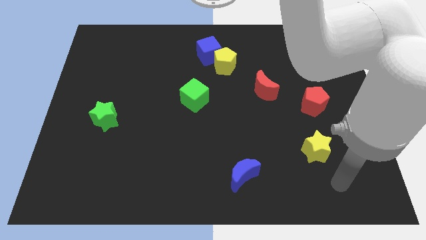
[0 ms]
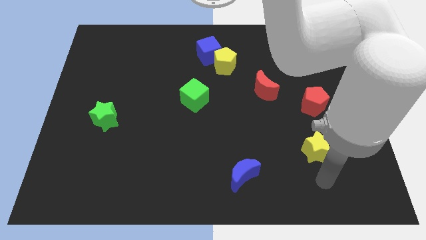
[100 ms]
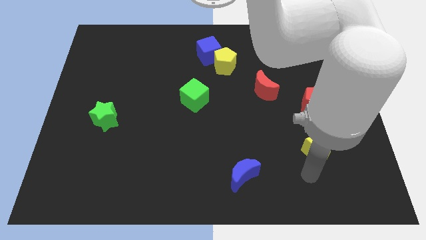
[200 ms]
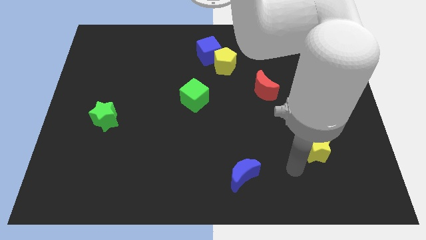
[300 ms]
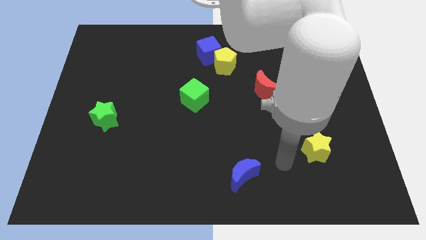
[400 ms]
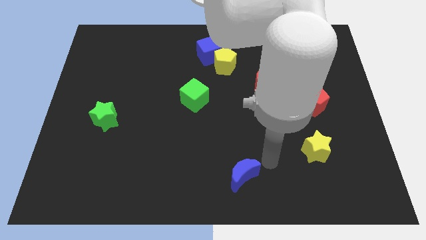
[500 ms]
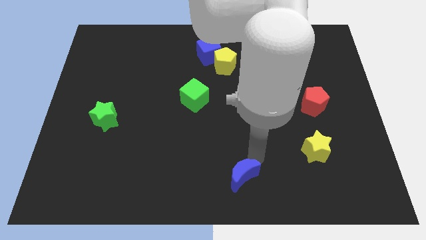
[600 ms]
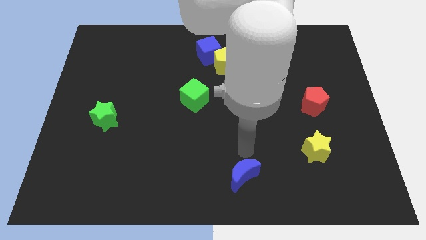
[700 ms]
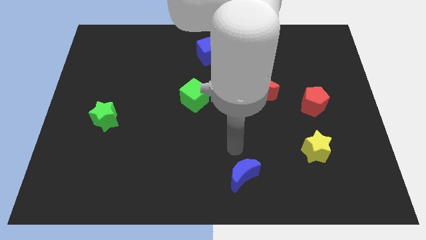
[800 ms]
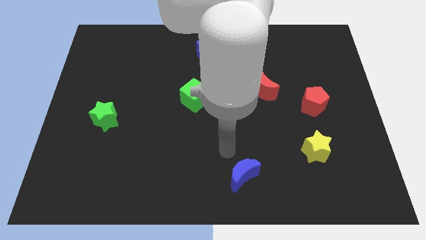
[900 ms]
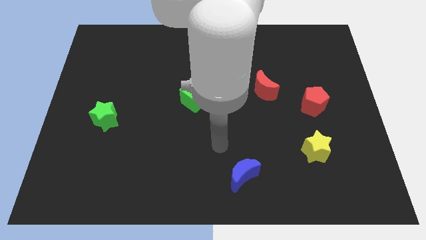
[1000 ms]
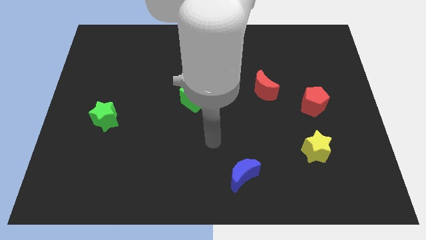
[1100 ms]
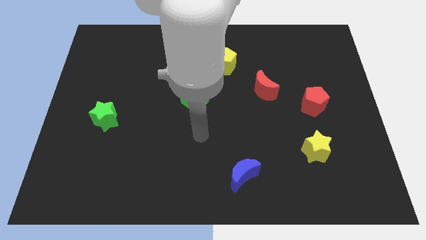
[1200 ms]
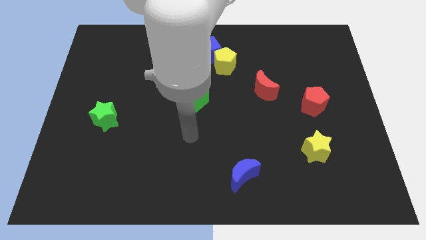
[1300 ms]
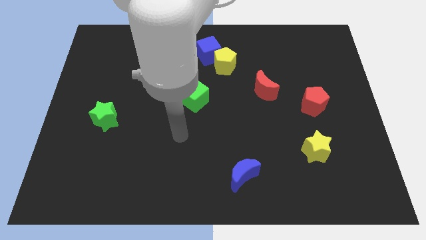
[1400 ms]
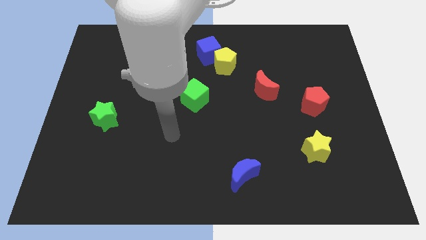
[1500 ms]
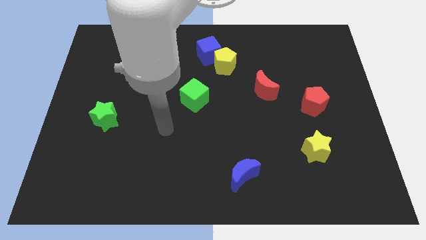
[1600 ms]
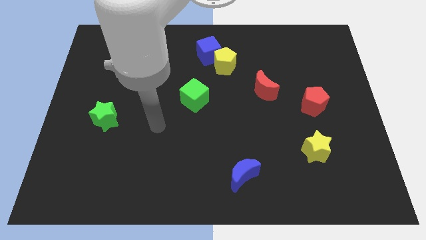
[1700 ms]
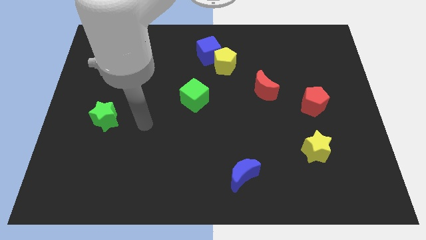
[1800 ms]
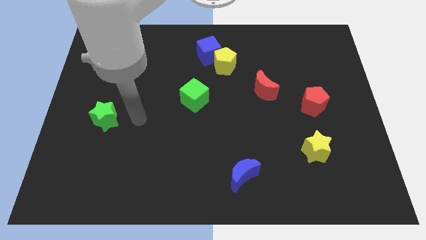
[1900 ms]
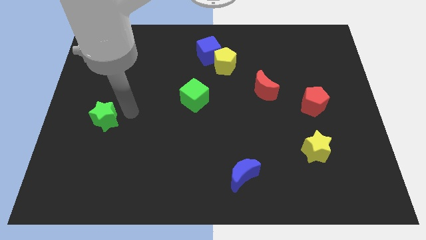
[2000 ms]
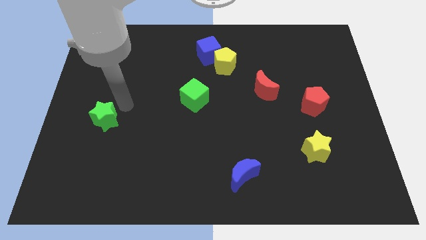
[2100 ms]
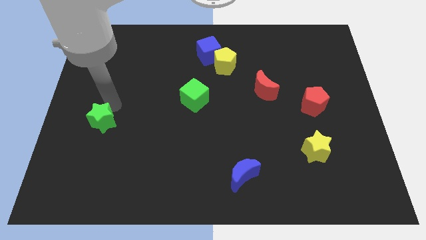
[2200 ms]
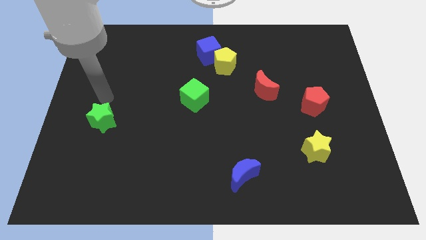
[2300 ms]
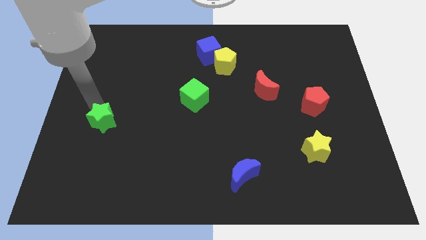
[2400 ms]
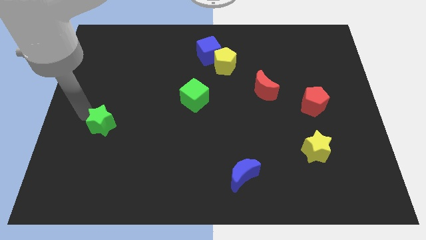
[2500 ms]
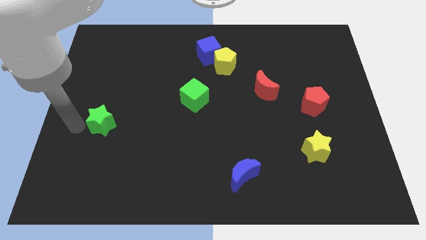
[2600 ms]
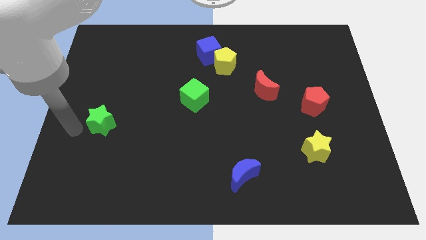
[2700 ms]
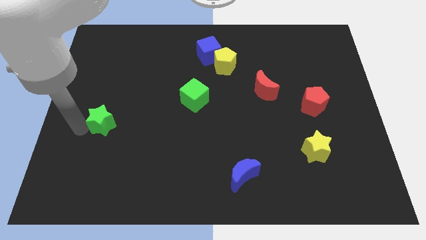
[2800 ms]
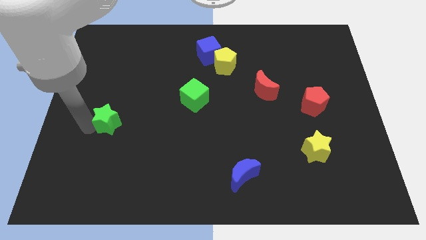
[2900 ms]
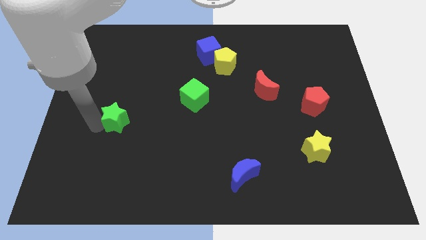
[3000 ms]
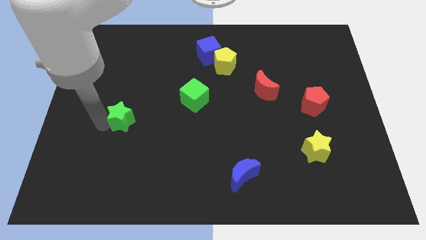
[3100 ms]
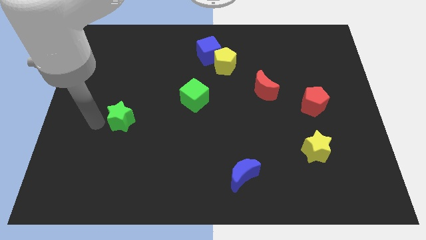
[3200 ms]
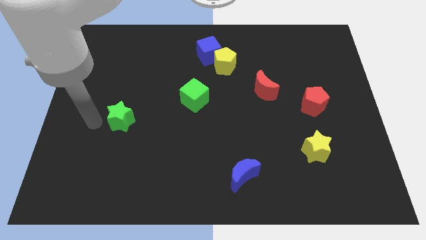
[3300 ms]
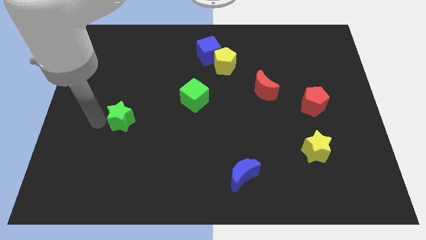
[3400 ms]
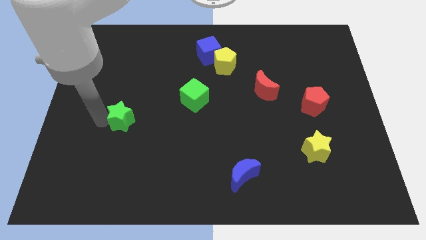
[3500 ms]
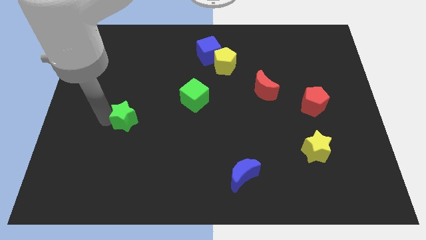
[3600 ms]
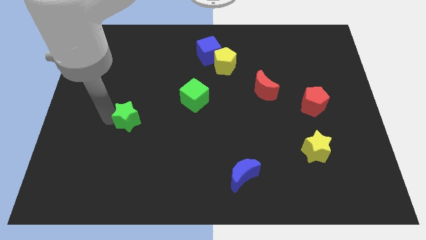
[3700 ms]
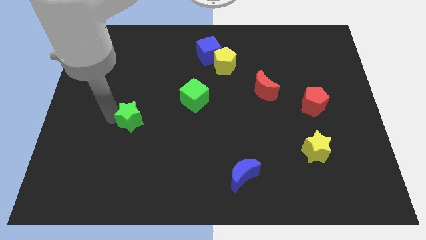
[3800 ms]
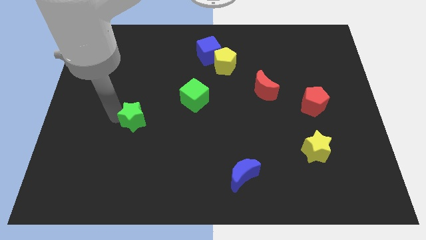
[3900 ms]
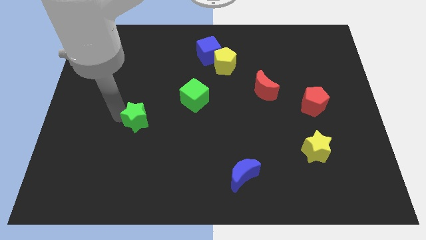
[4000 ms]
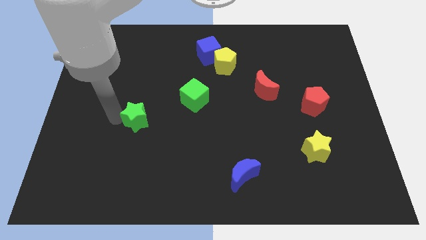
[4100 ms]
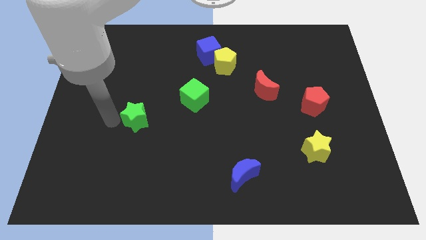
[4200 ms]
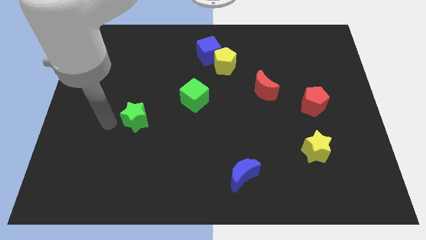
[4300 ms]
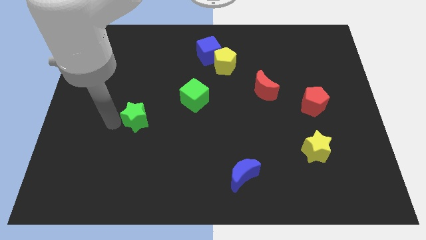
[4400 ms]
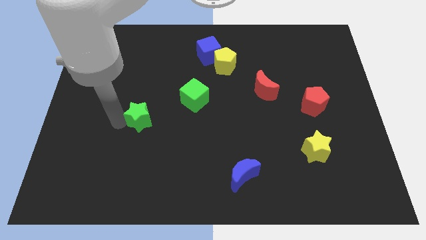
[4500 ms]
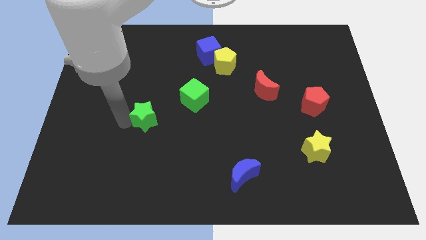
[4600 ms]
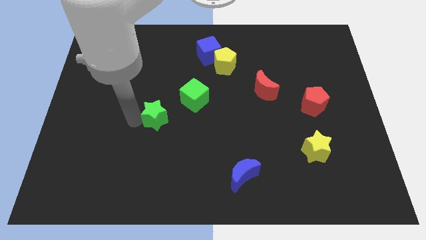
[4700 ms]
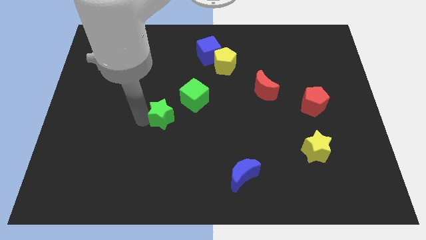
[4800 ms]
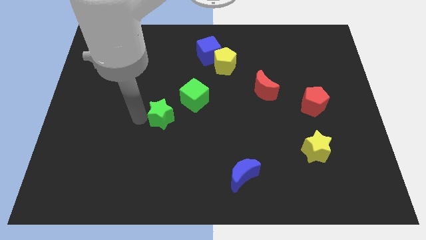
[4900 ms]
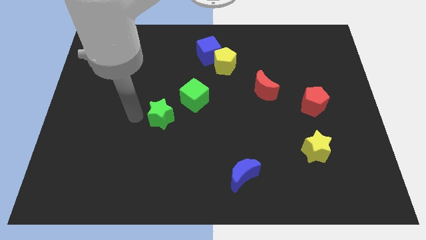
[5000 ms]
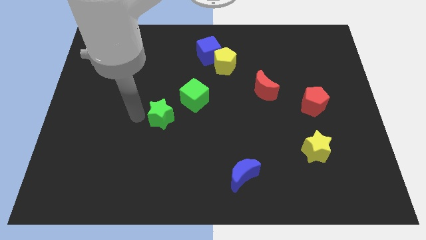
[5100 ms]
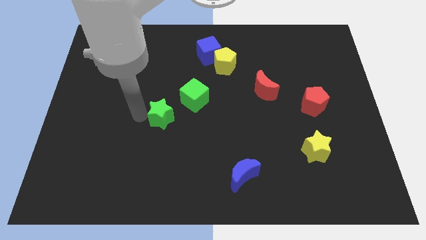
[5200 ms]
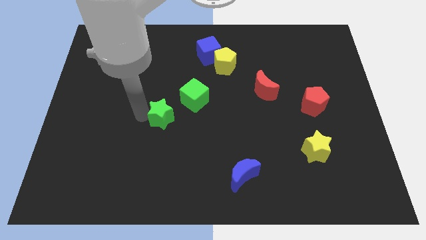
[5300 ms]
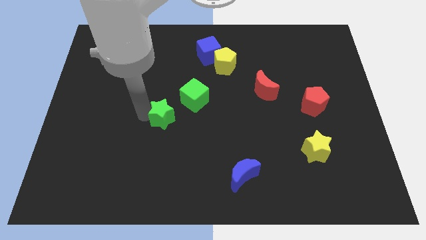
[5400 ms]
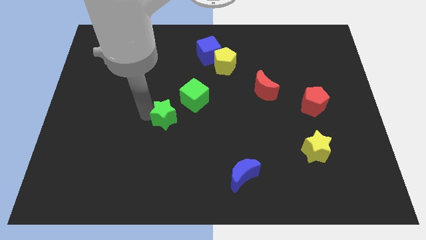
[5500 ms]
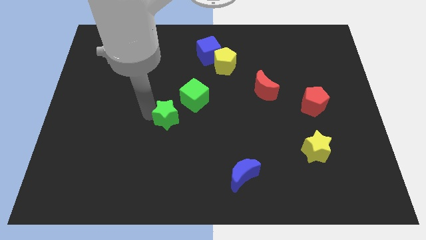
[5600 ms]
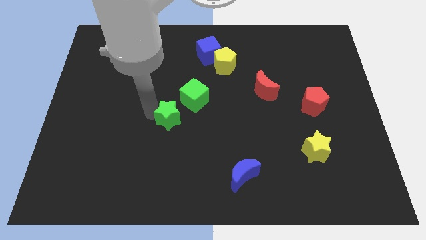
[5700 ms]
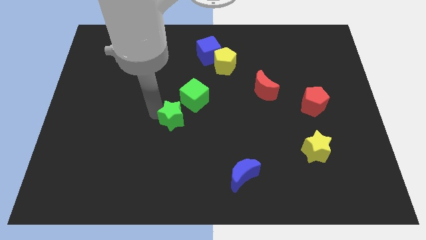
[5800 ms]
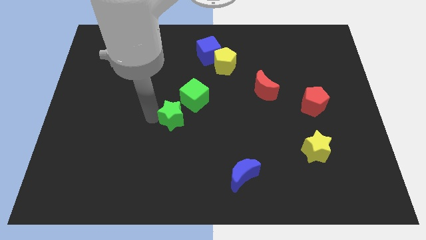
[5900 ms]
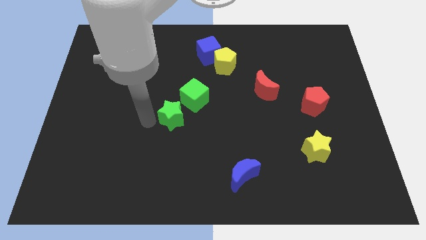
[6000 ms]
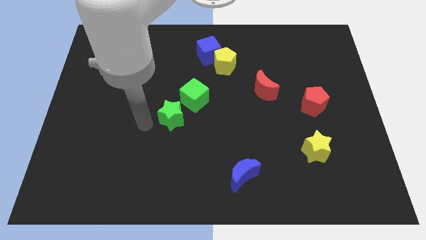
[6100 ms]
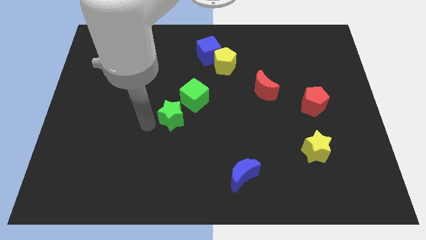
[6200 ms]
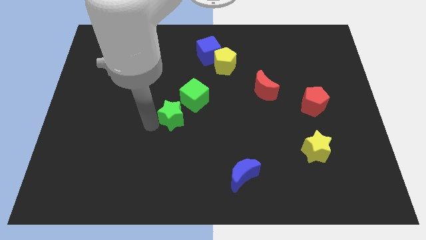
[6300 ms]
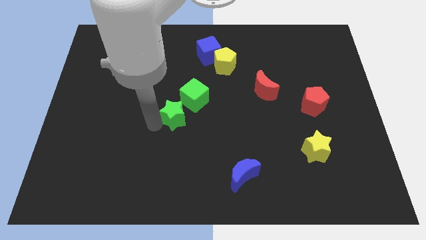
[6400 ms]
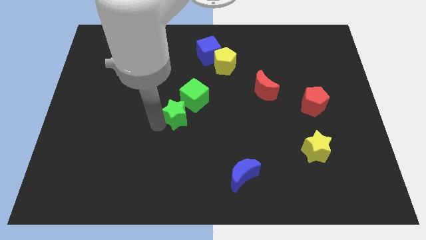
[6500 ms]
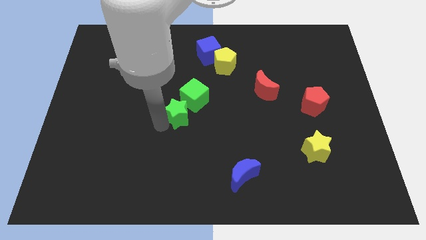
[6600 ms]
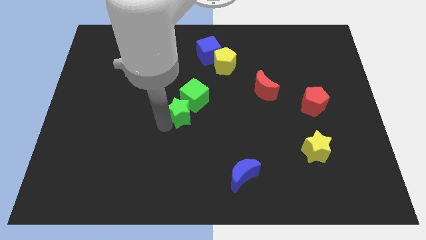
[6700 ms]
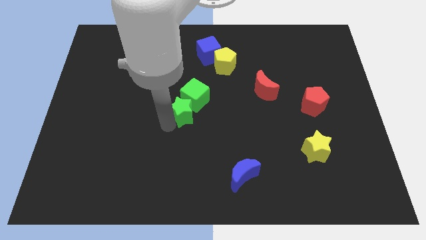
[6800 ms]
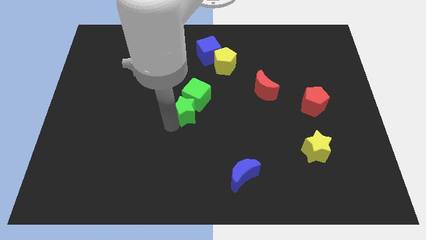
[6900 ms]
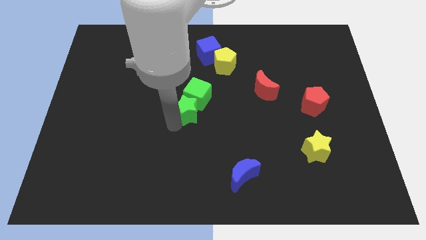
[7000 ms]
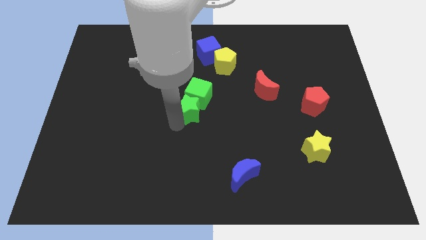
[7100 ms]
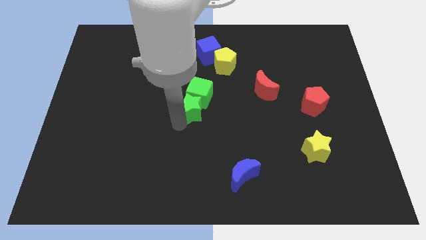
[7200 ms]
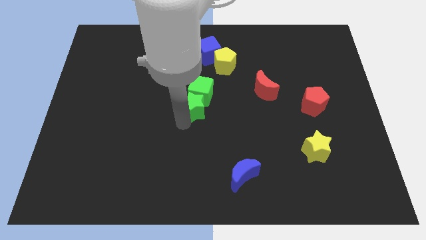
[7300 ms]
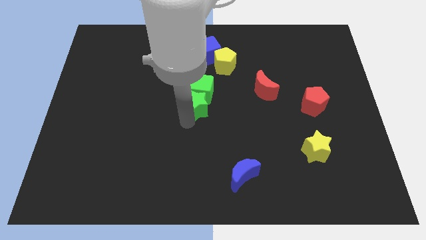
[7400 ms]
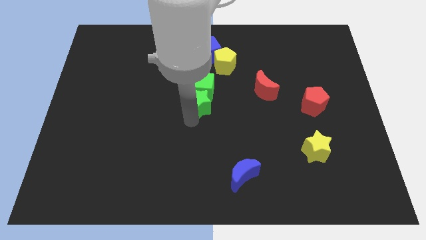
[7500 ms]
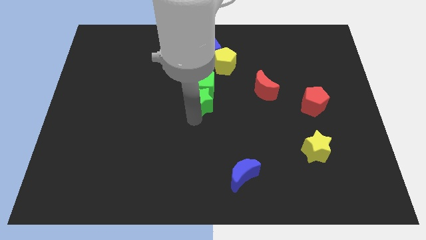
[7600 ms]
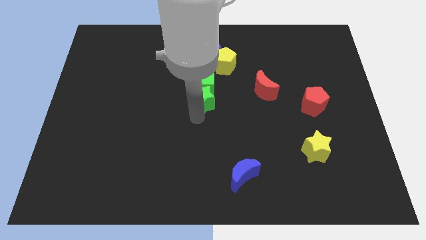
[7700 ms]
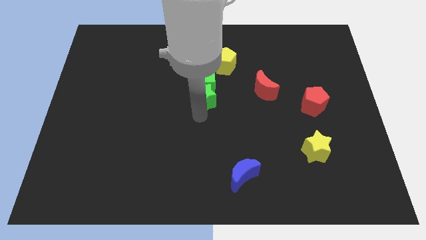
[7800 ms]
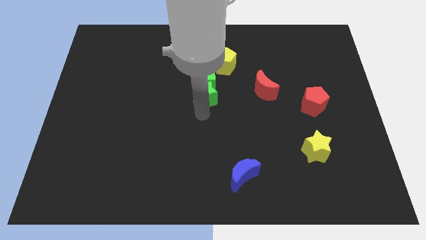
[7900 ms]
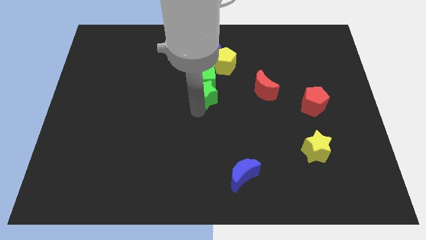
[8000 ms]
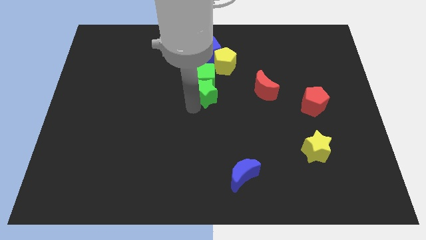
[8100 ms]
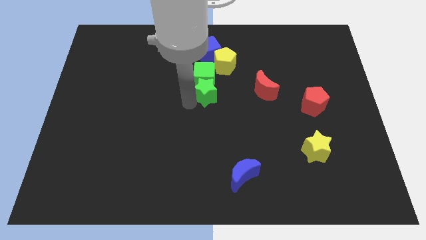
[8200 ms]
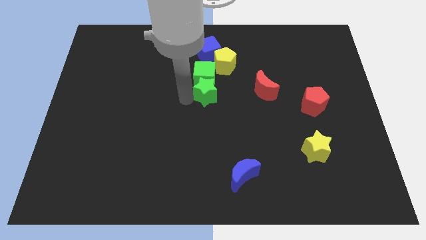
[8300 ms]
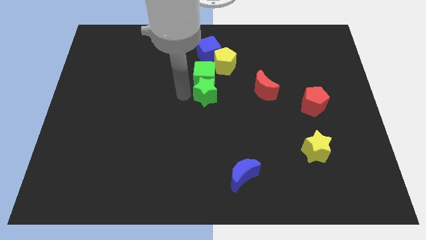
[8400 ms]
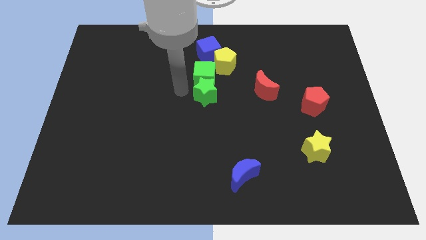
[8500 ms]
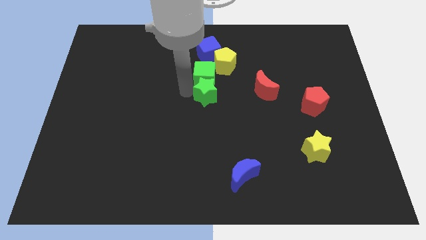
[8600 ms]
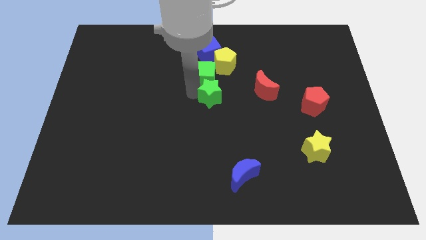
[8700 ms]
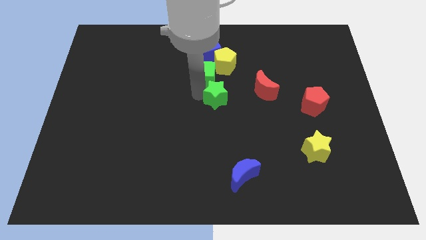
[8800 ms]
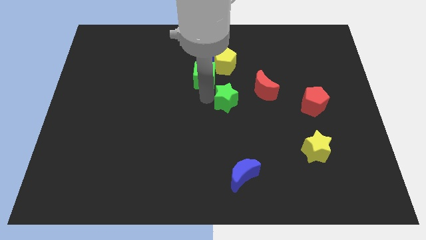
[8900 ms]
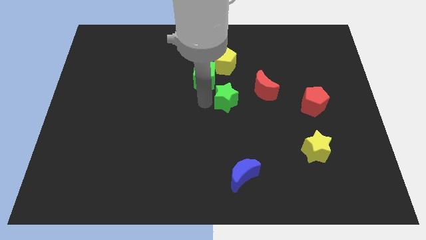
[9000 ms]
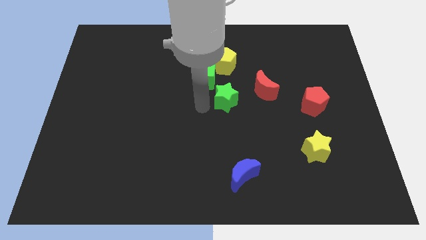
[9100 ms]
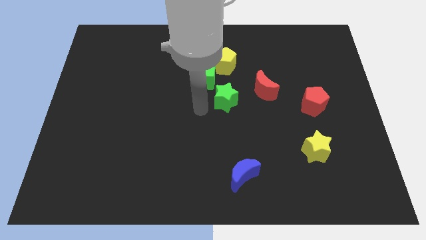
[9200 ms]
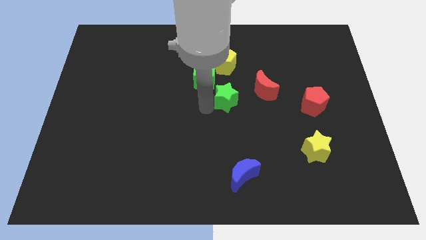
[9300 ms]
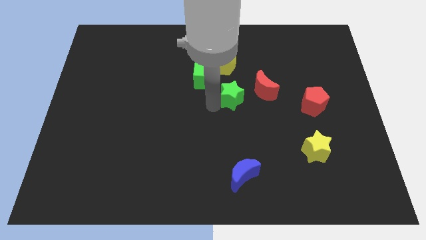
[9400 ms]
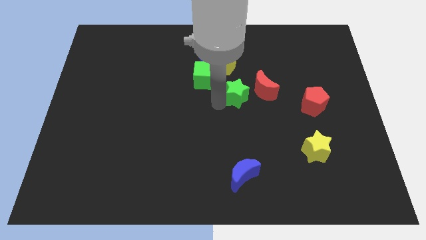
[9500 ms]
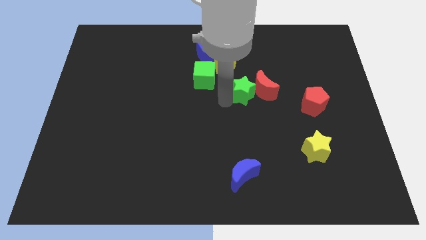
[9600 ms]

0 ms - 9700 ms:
put the green star close to the red moon
